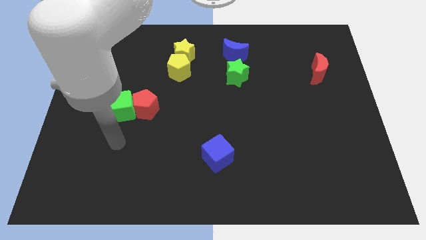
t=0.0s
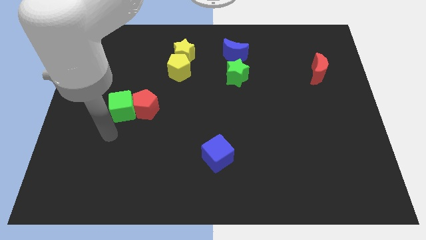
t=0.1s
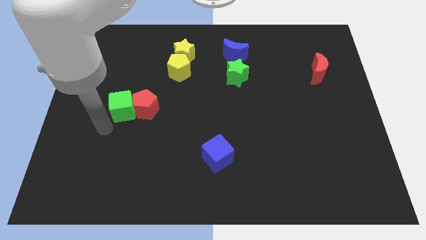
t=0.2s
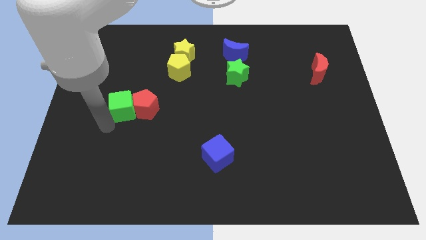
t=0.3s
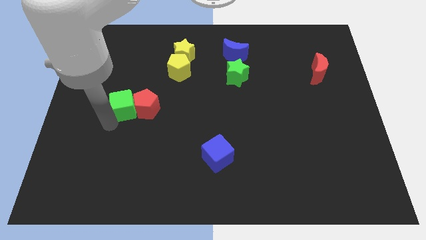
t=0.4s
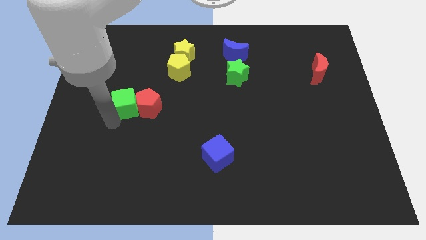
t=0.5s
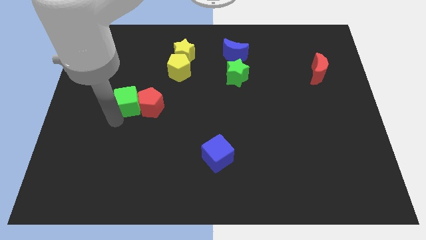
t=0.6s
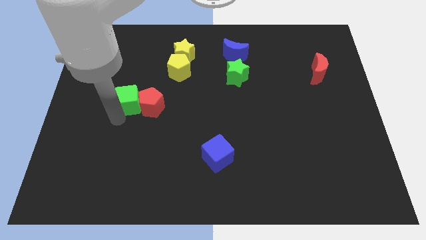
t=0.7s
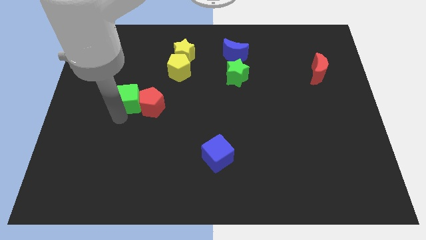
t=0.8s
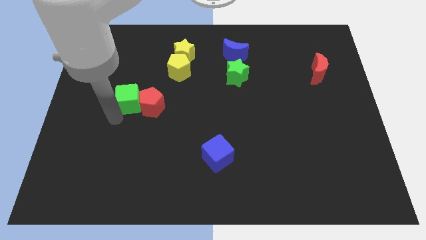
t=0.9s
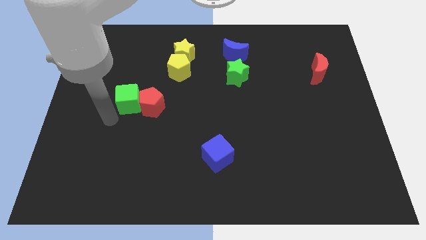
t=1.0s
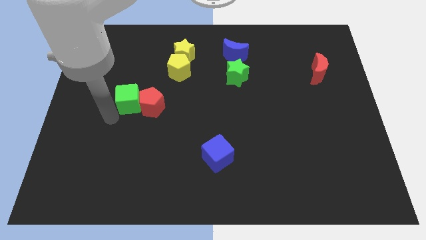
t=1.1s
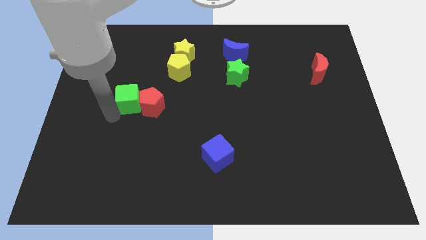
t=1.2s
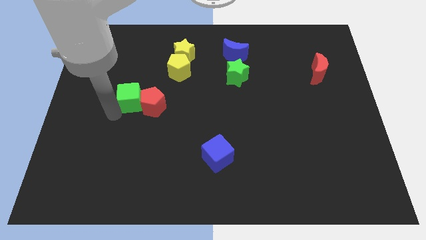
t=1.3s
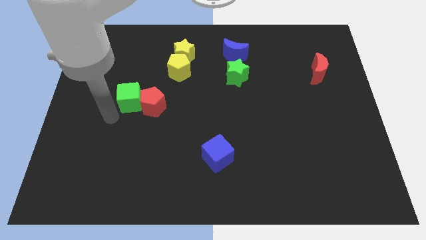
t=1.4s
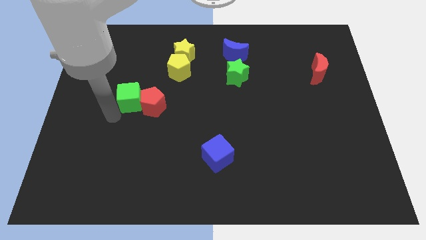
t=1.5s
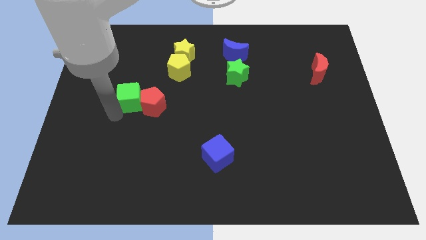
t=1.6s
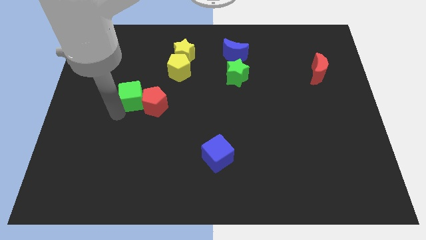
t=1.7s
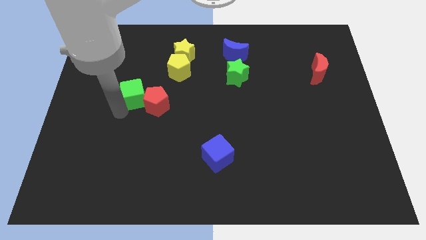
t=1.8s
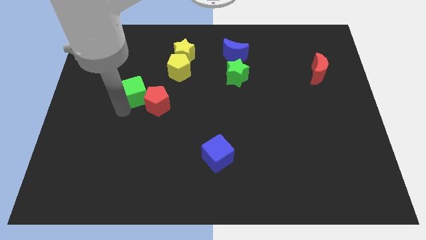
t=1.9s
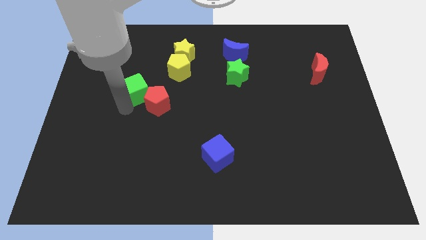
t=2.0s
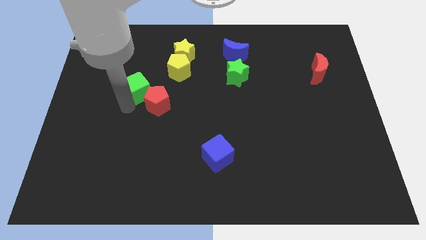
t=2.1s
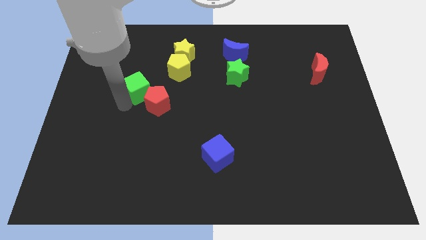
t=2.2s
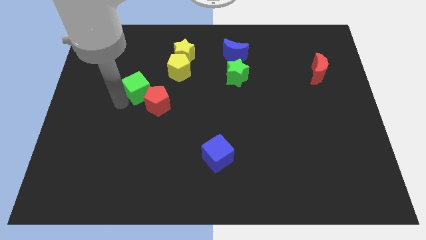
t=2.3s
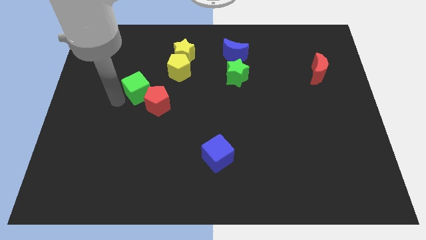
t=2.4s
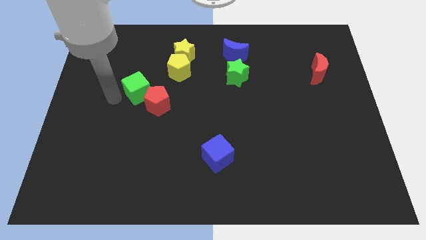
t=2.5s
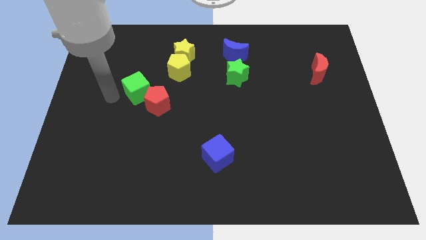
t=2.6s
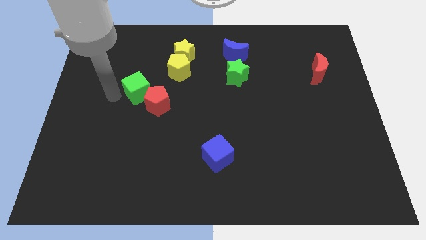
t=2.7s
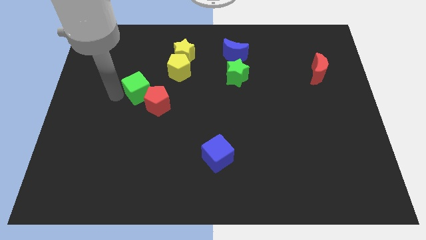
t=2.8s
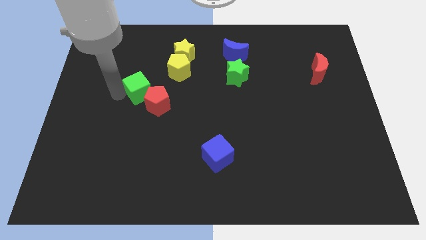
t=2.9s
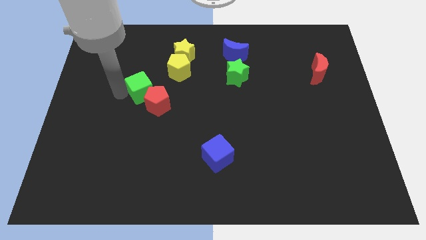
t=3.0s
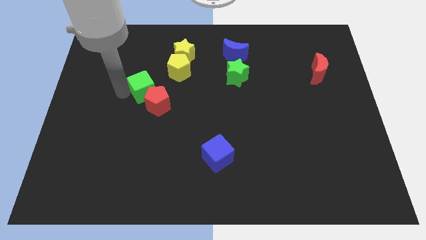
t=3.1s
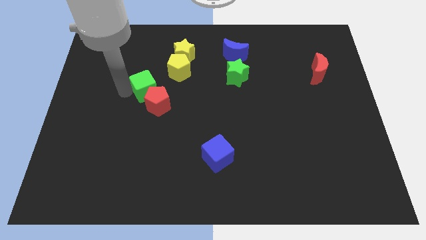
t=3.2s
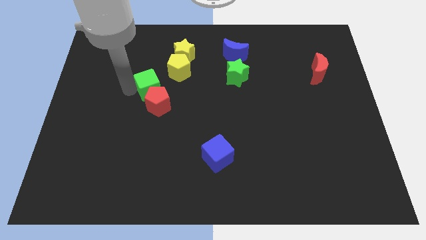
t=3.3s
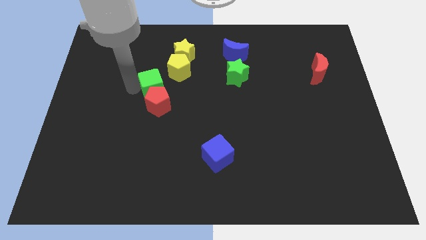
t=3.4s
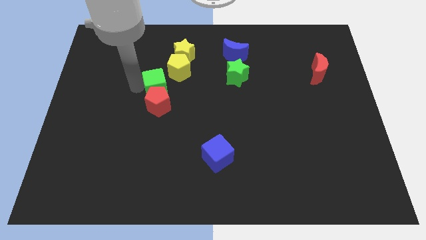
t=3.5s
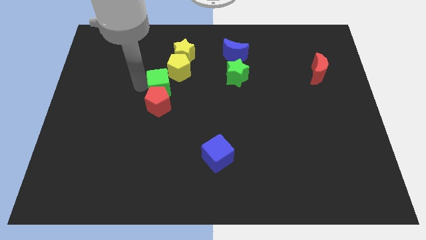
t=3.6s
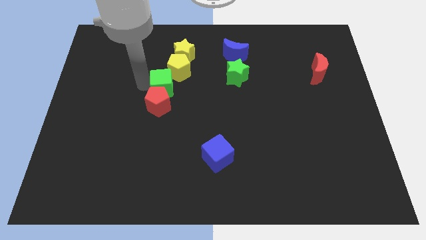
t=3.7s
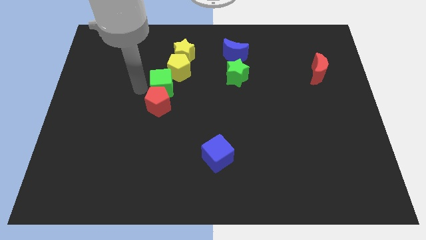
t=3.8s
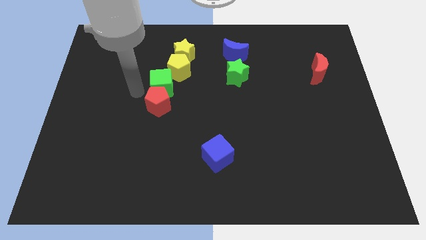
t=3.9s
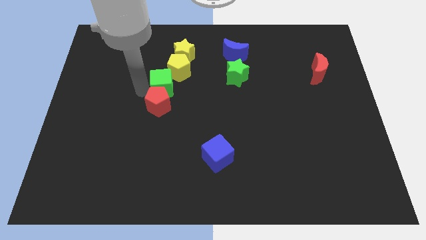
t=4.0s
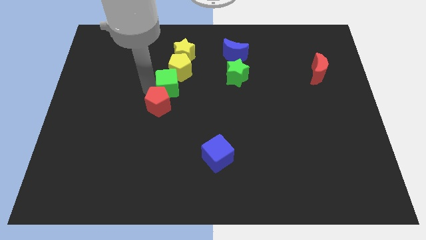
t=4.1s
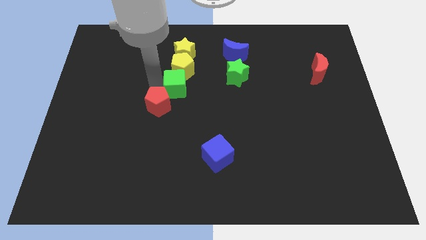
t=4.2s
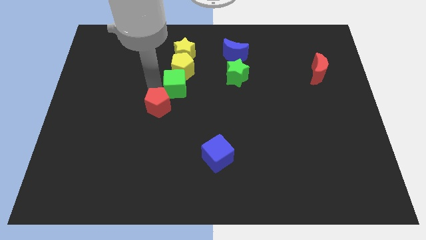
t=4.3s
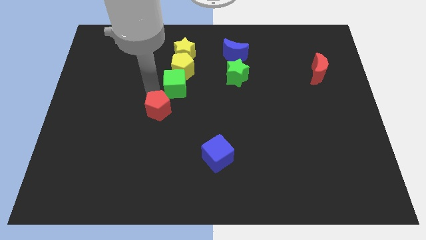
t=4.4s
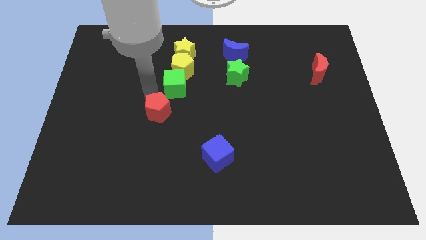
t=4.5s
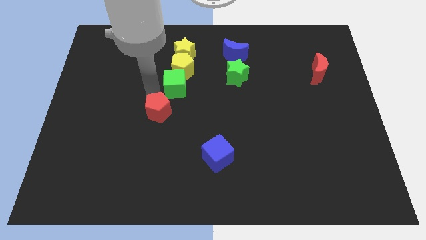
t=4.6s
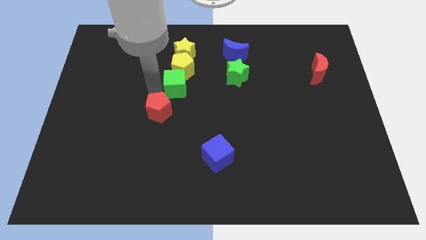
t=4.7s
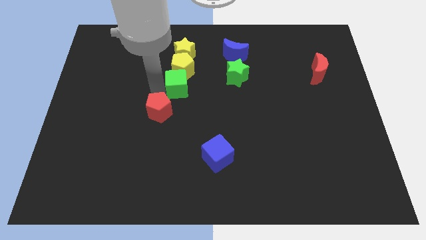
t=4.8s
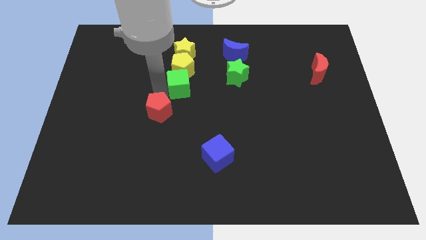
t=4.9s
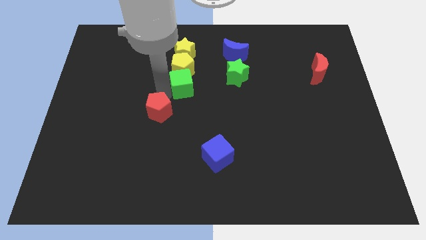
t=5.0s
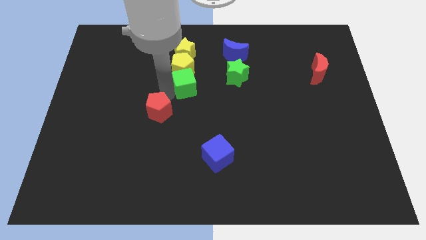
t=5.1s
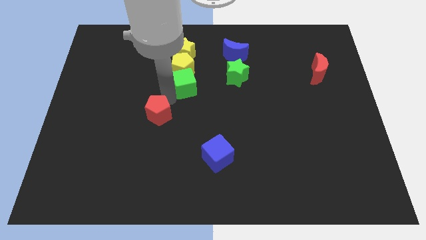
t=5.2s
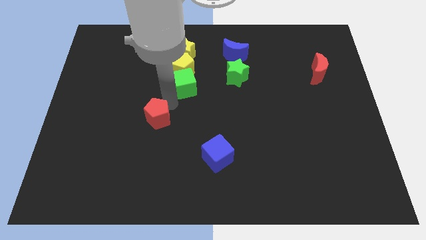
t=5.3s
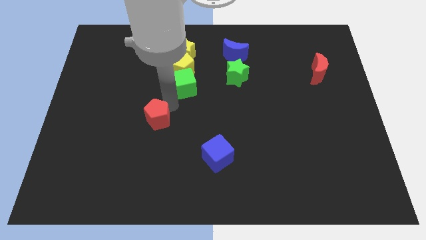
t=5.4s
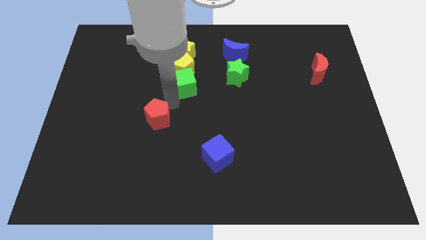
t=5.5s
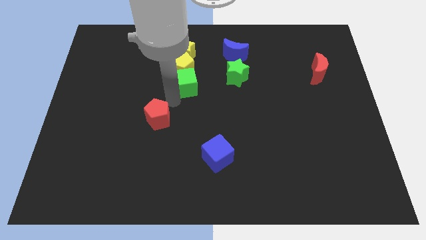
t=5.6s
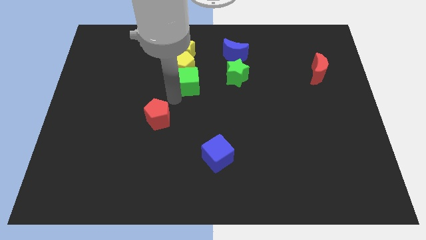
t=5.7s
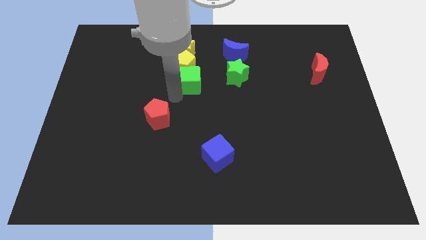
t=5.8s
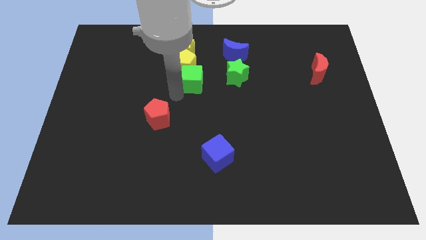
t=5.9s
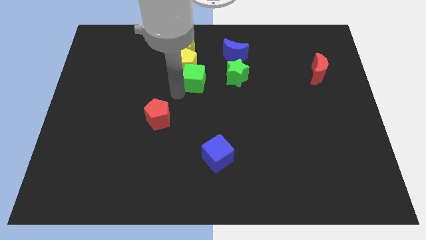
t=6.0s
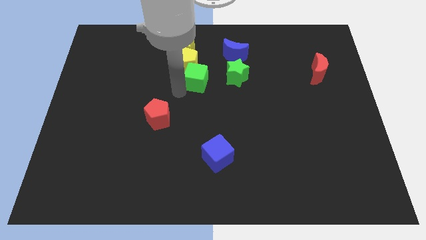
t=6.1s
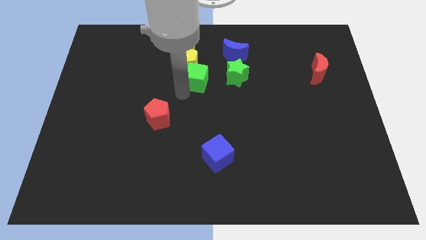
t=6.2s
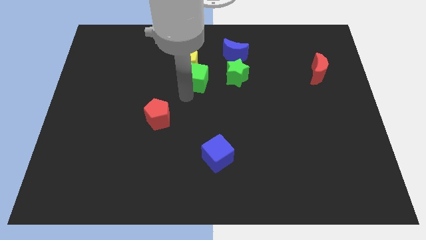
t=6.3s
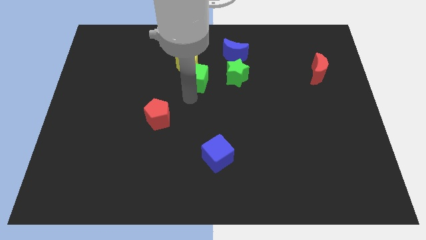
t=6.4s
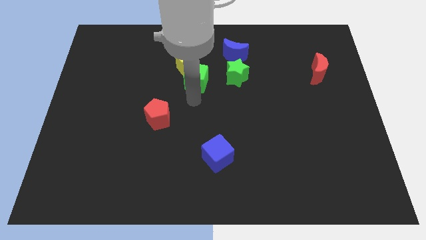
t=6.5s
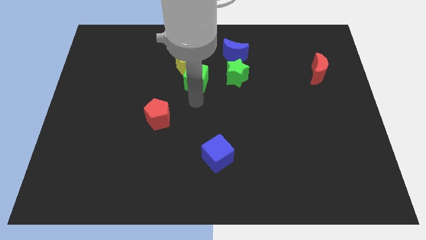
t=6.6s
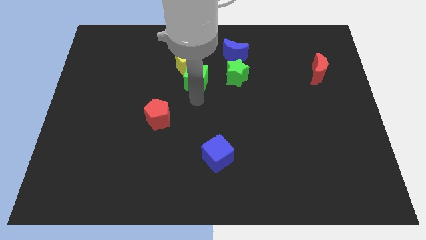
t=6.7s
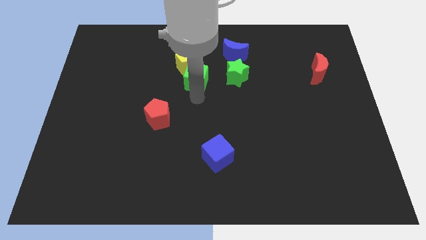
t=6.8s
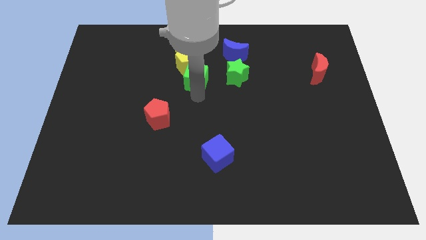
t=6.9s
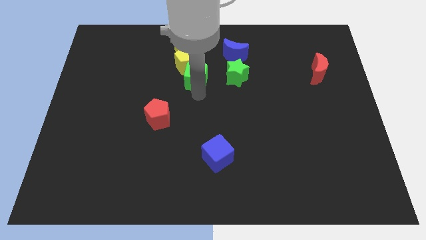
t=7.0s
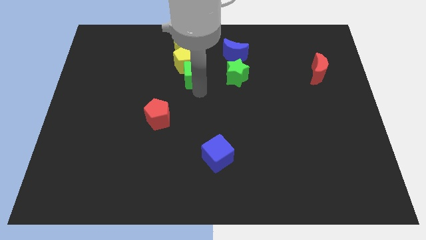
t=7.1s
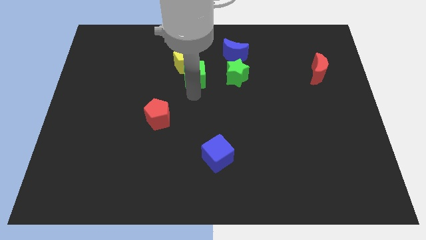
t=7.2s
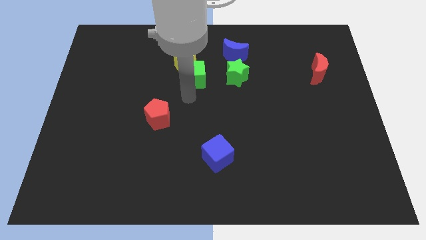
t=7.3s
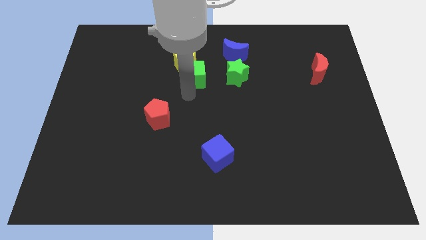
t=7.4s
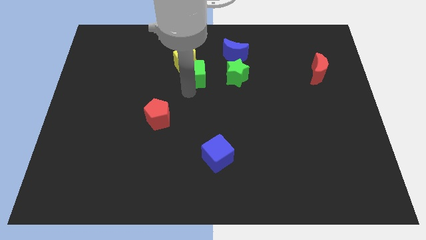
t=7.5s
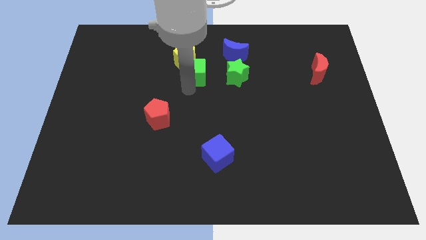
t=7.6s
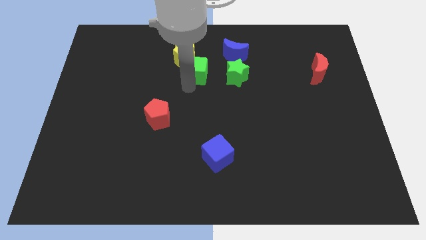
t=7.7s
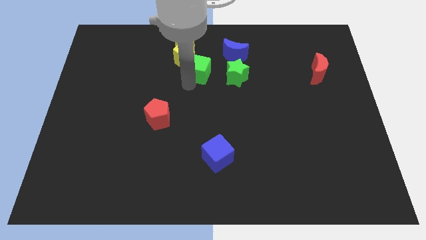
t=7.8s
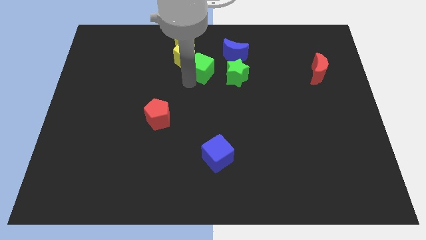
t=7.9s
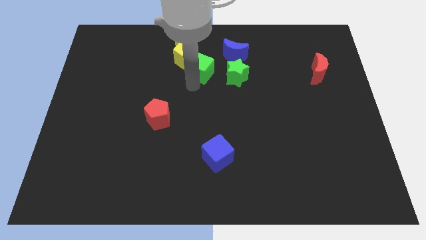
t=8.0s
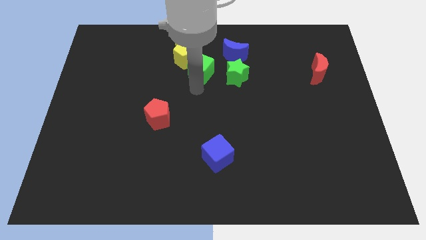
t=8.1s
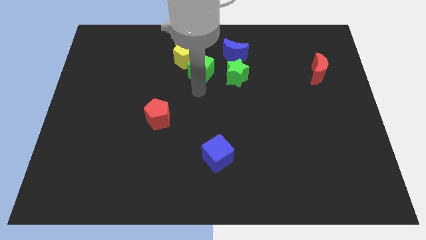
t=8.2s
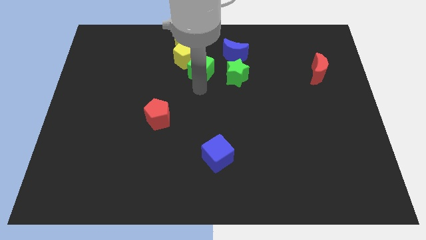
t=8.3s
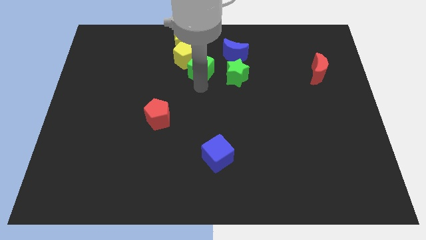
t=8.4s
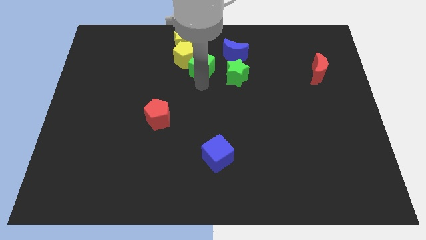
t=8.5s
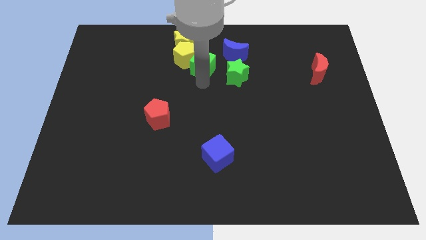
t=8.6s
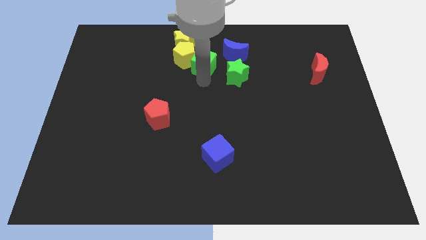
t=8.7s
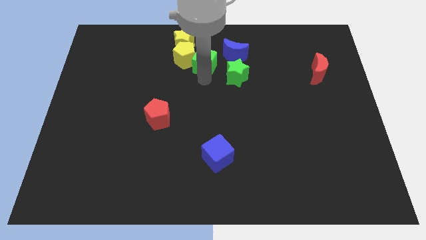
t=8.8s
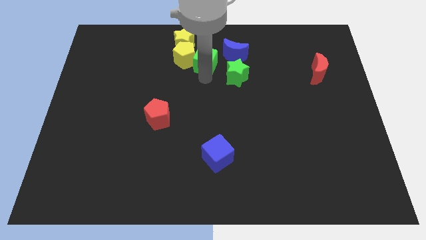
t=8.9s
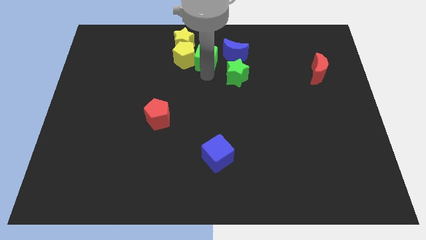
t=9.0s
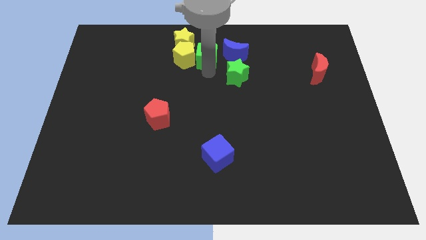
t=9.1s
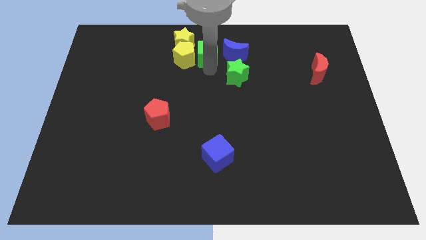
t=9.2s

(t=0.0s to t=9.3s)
put the green cube to the top
